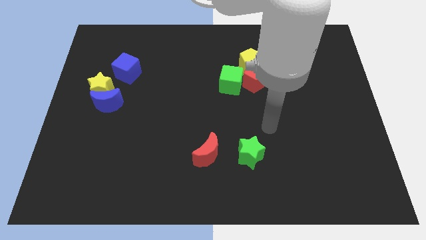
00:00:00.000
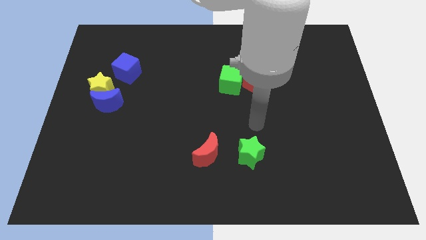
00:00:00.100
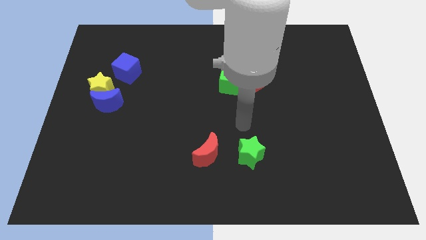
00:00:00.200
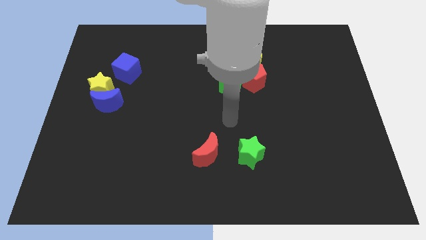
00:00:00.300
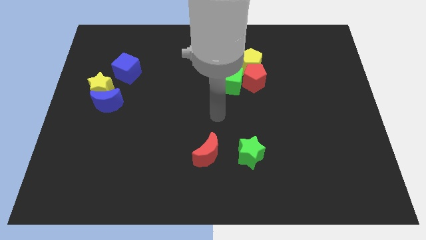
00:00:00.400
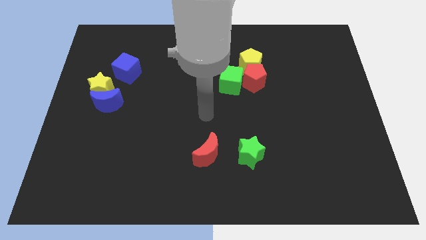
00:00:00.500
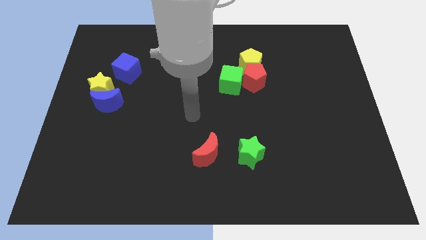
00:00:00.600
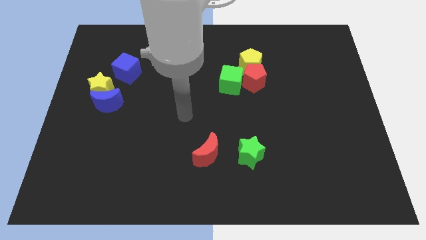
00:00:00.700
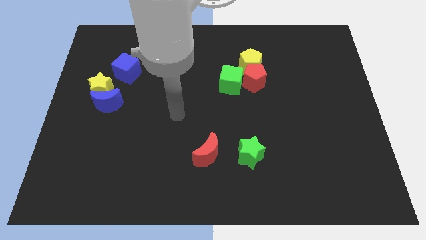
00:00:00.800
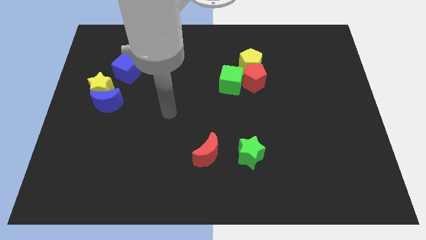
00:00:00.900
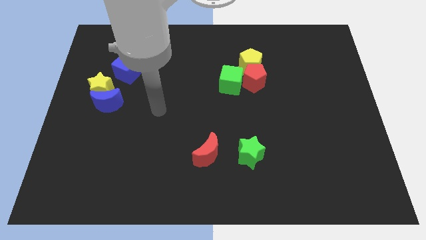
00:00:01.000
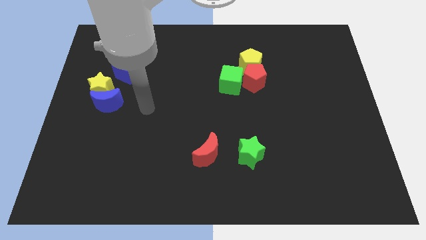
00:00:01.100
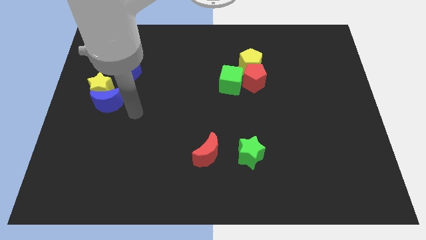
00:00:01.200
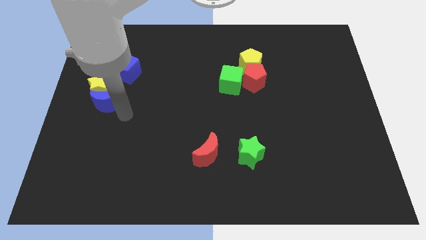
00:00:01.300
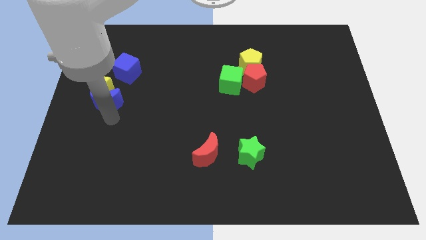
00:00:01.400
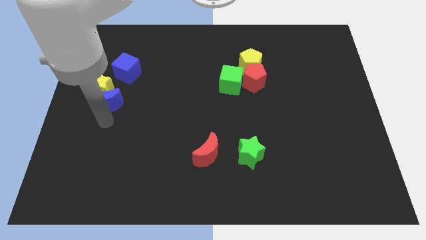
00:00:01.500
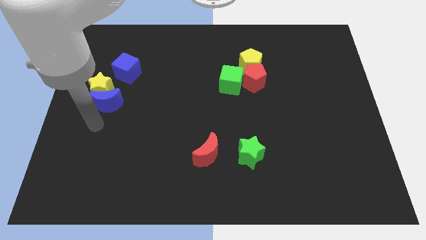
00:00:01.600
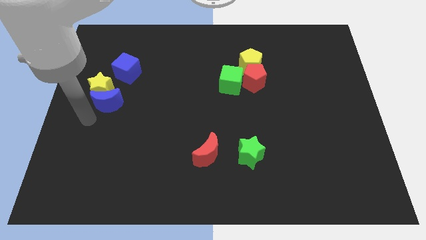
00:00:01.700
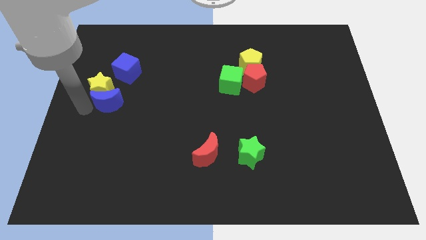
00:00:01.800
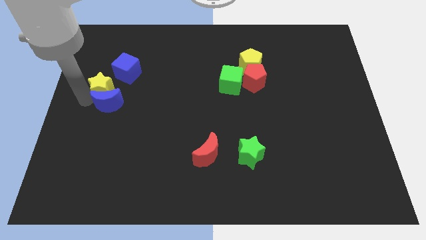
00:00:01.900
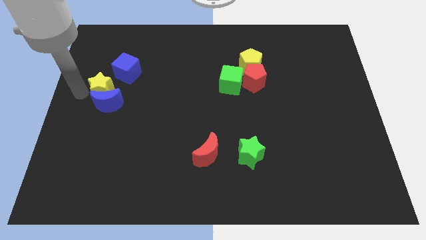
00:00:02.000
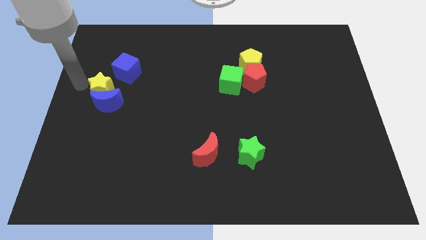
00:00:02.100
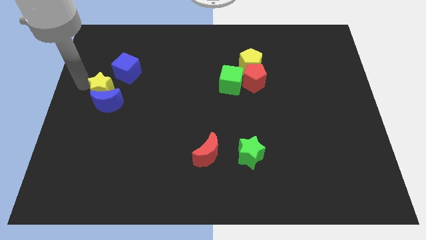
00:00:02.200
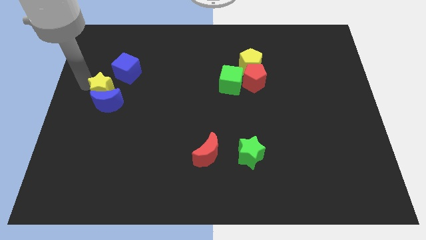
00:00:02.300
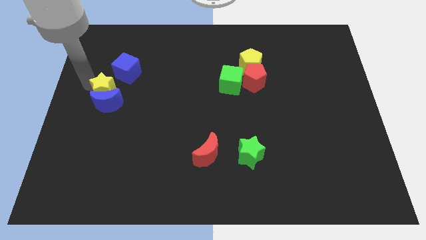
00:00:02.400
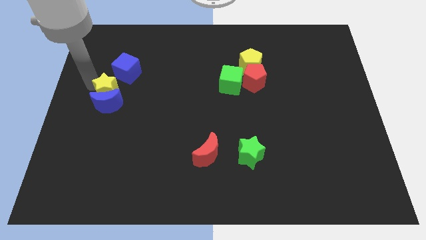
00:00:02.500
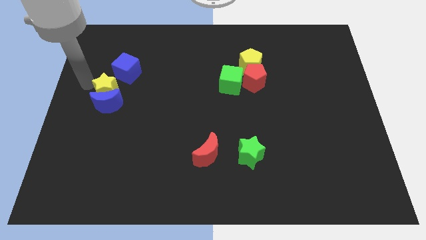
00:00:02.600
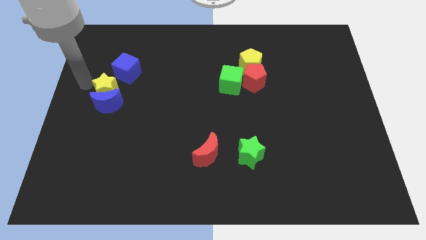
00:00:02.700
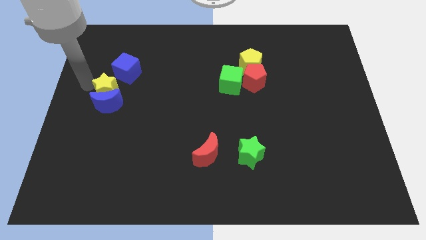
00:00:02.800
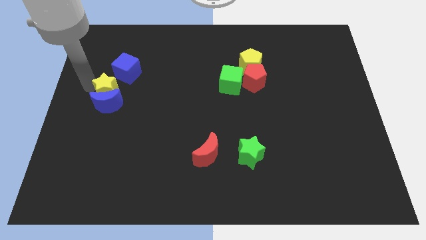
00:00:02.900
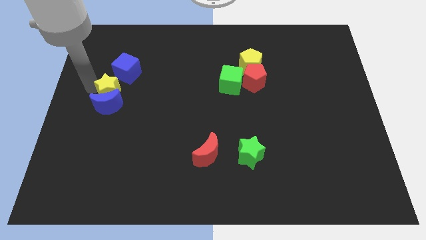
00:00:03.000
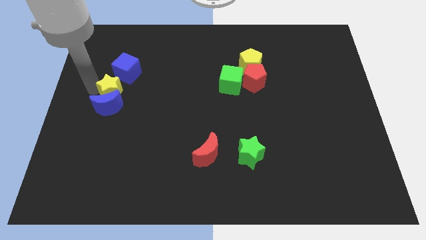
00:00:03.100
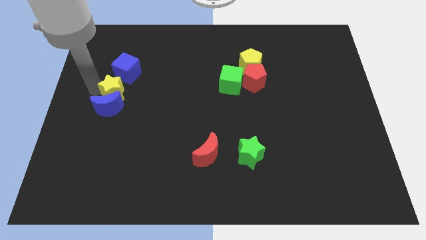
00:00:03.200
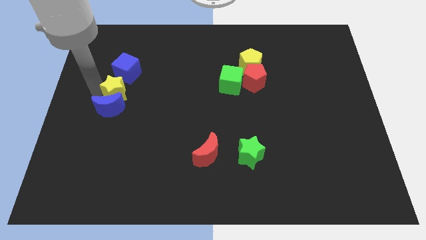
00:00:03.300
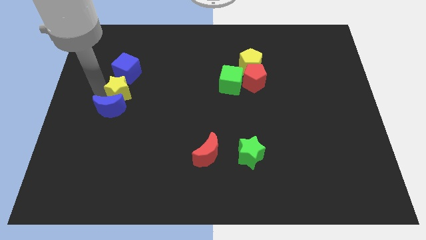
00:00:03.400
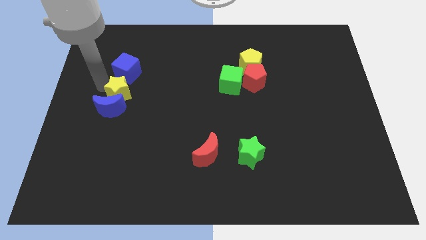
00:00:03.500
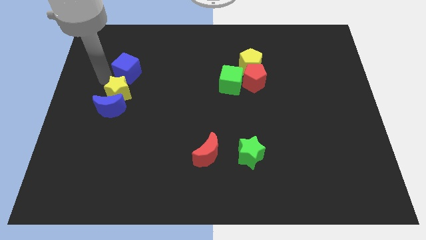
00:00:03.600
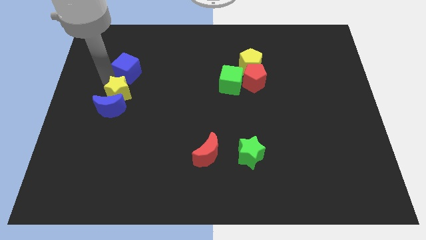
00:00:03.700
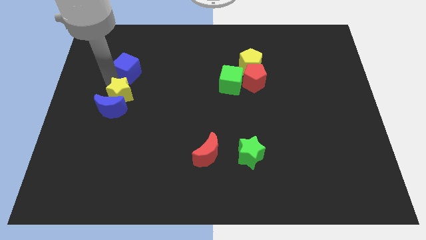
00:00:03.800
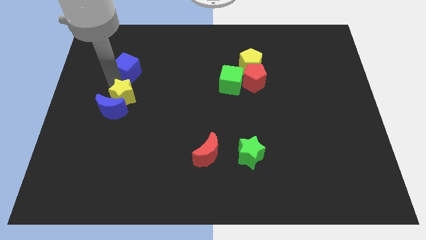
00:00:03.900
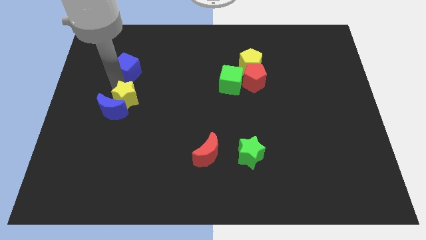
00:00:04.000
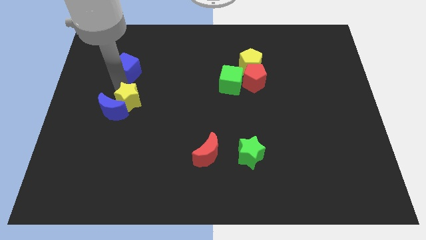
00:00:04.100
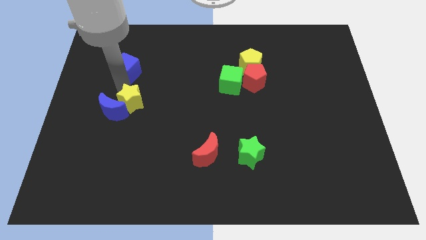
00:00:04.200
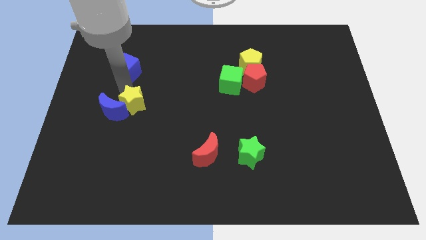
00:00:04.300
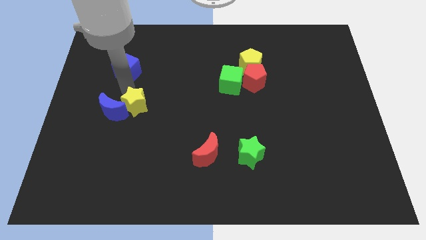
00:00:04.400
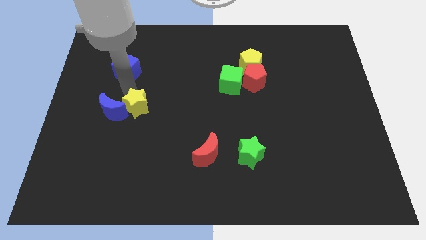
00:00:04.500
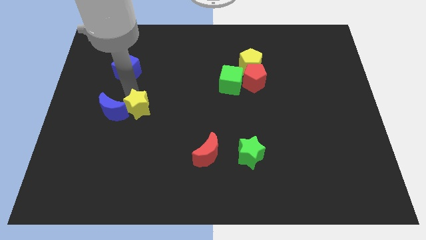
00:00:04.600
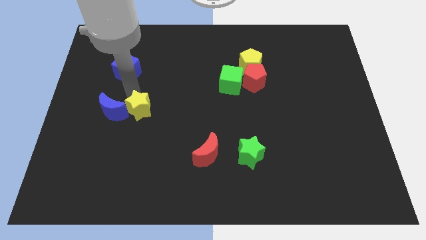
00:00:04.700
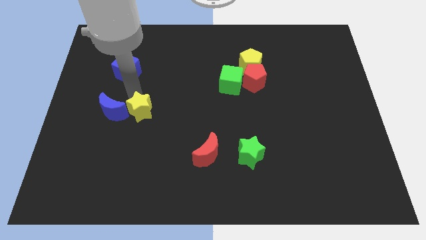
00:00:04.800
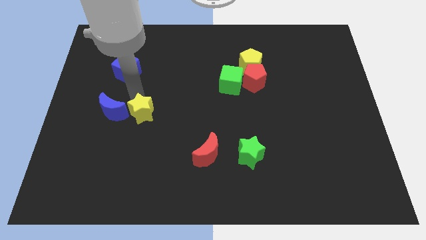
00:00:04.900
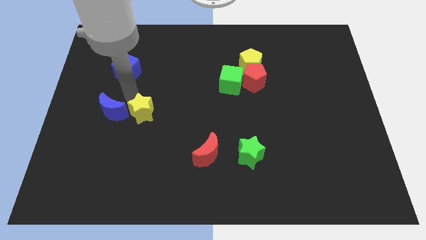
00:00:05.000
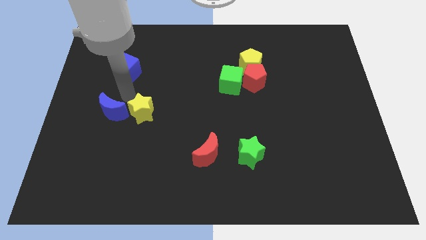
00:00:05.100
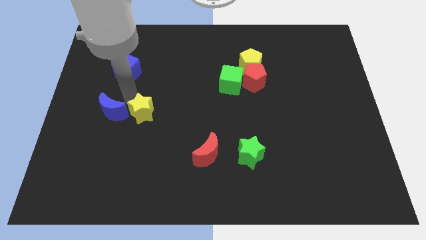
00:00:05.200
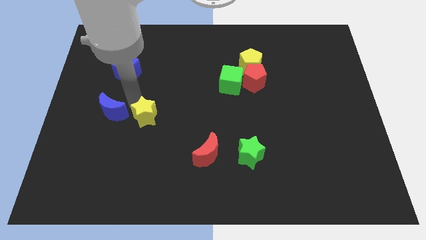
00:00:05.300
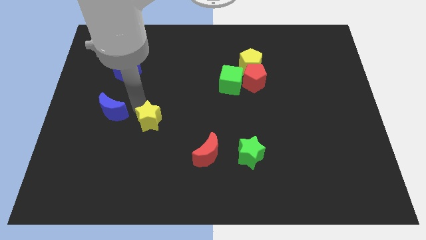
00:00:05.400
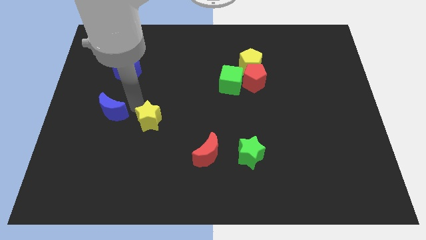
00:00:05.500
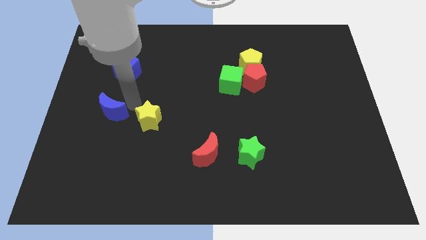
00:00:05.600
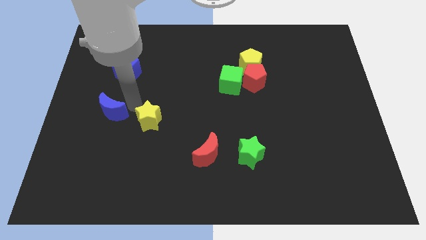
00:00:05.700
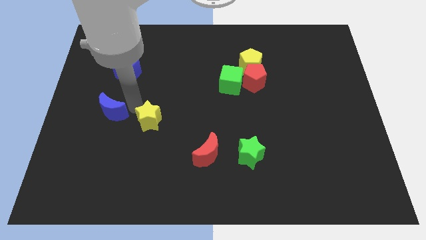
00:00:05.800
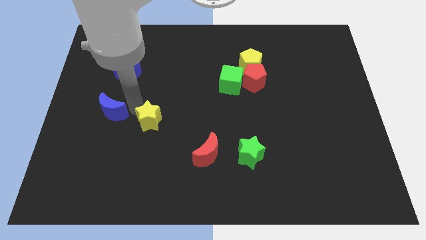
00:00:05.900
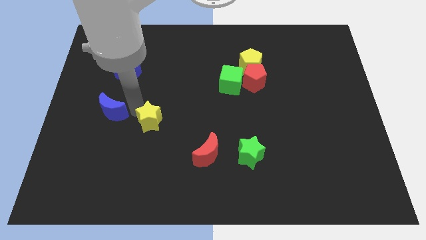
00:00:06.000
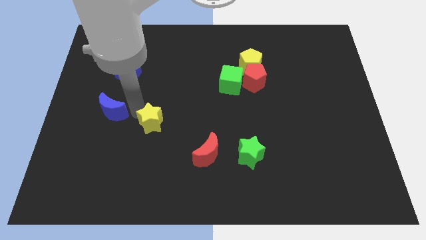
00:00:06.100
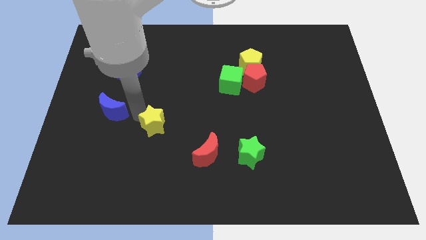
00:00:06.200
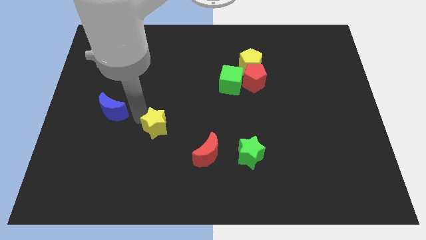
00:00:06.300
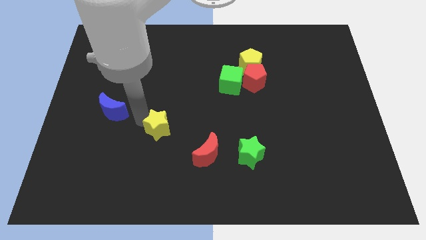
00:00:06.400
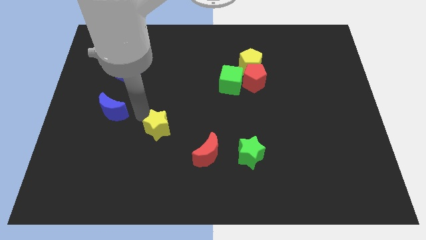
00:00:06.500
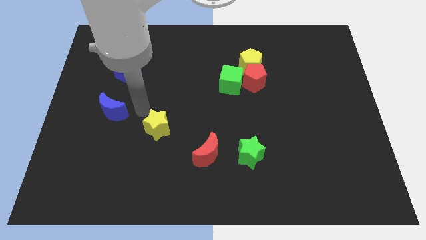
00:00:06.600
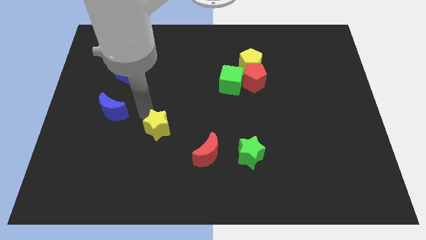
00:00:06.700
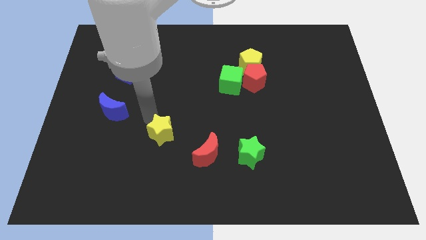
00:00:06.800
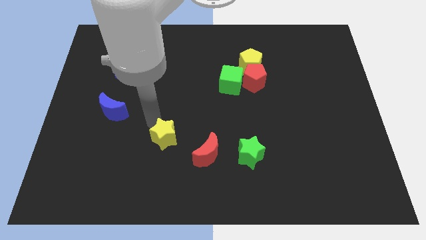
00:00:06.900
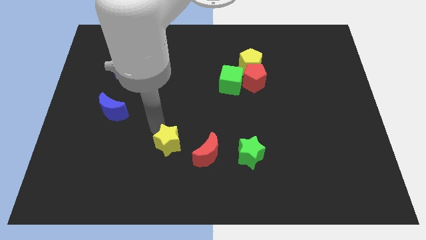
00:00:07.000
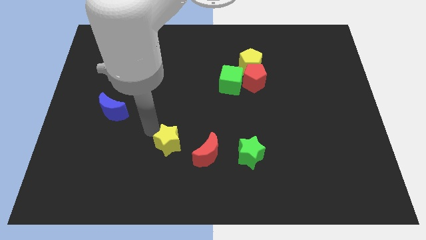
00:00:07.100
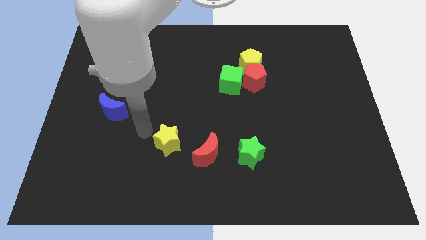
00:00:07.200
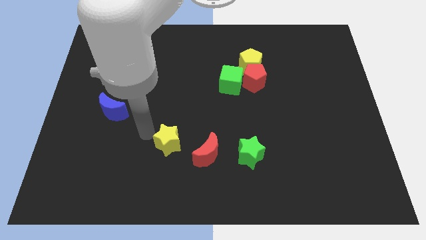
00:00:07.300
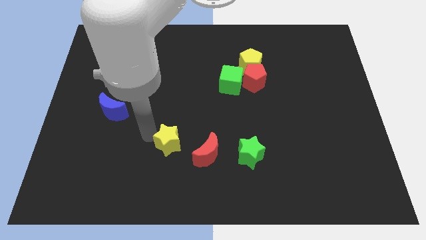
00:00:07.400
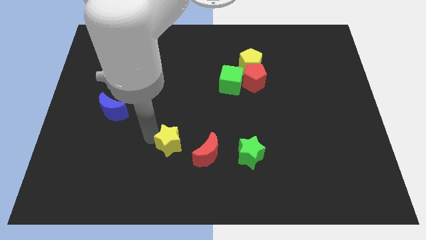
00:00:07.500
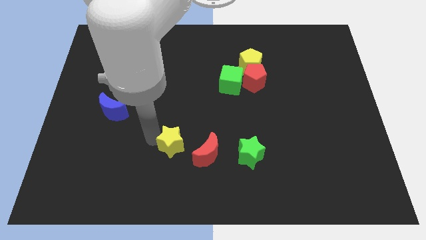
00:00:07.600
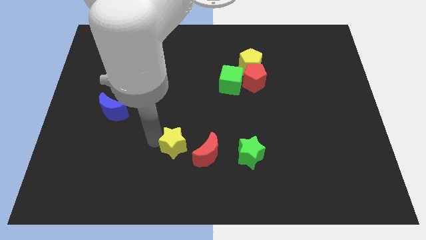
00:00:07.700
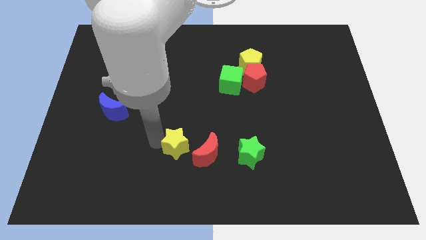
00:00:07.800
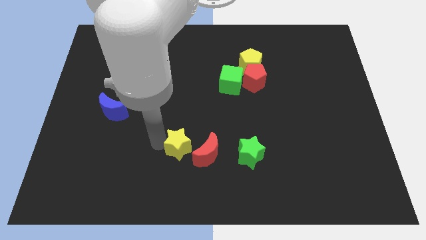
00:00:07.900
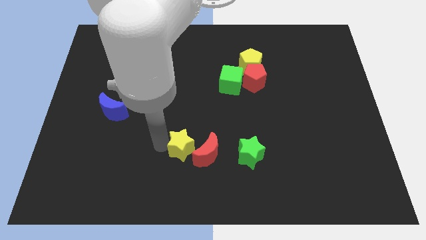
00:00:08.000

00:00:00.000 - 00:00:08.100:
slide the yellow star next to the red moon

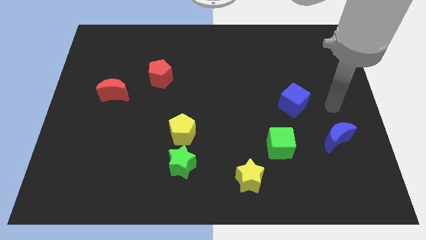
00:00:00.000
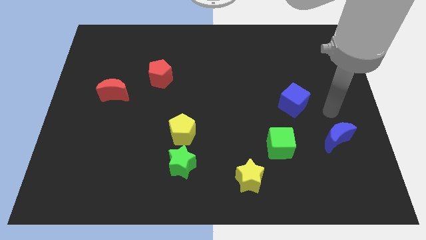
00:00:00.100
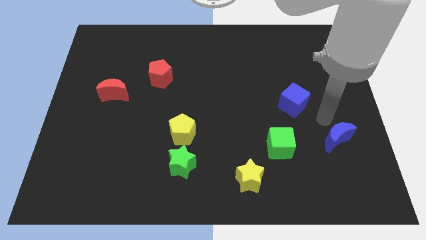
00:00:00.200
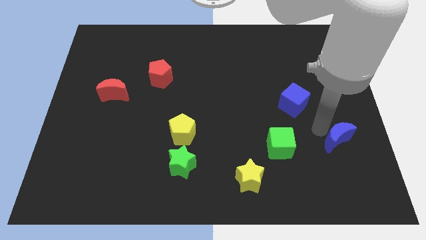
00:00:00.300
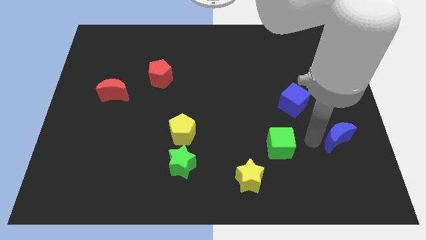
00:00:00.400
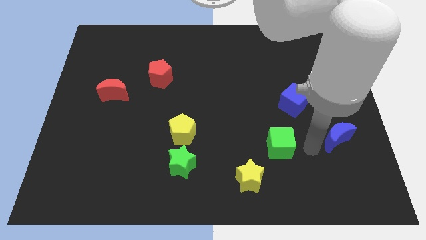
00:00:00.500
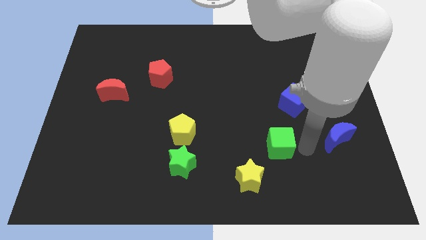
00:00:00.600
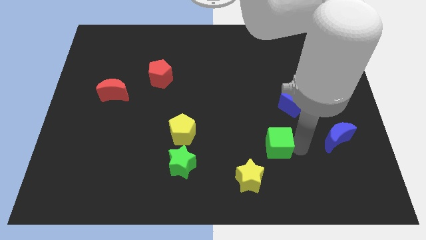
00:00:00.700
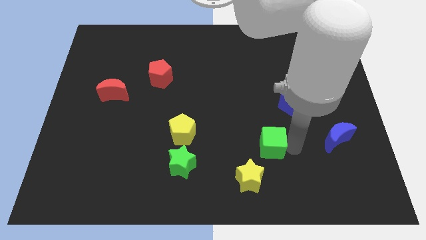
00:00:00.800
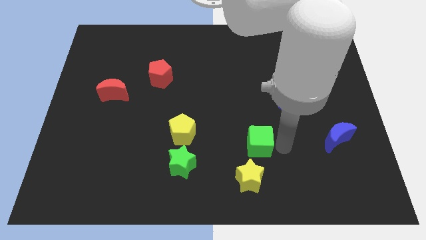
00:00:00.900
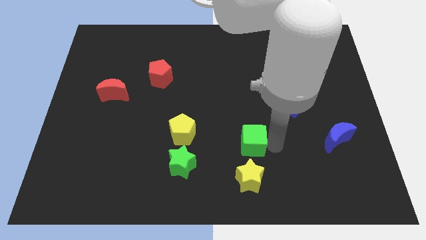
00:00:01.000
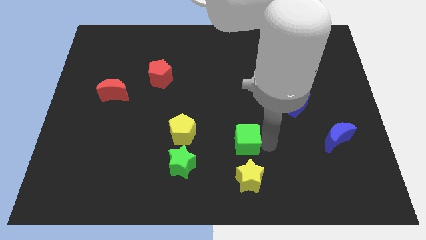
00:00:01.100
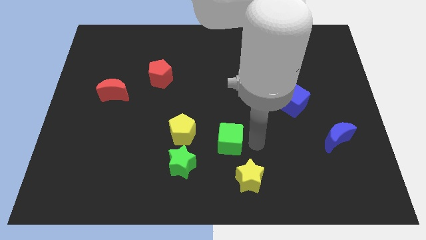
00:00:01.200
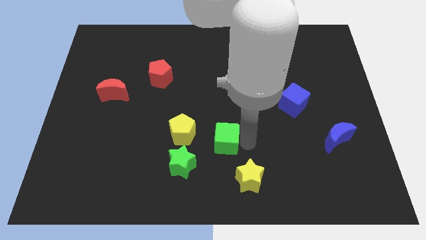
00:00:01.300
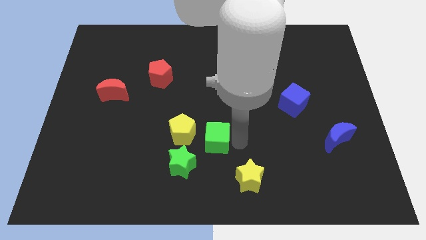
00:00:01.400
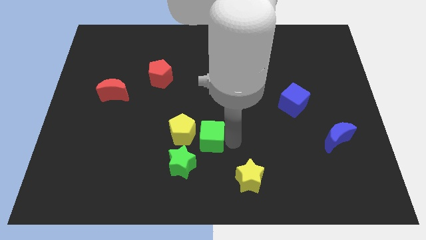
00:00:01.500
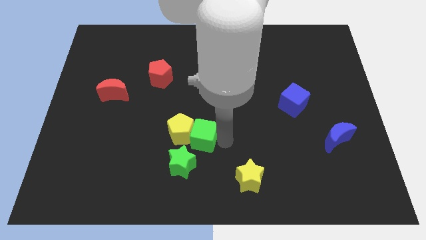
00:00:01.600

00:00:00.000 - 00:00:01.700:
move the green cube towards the yellow pentagon
